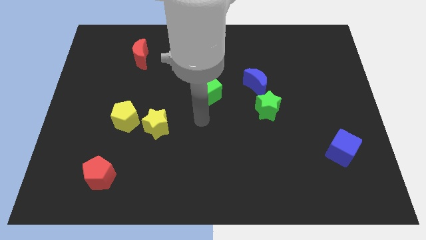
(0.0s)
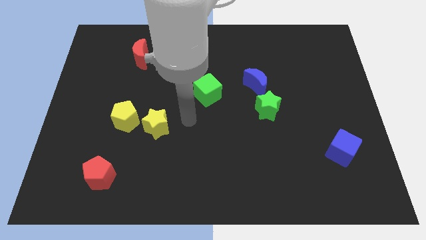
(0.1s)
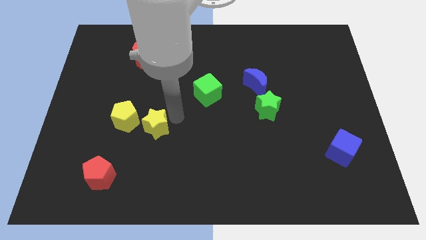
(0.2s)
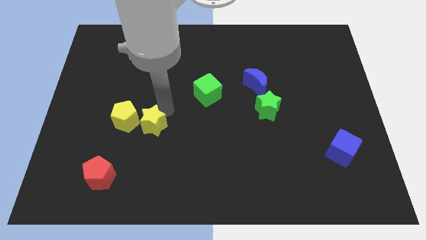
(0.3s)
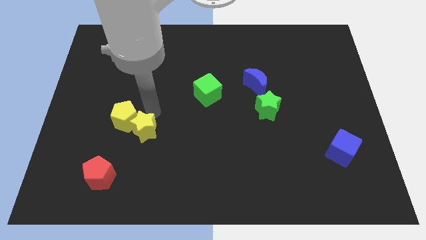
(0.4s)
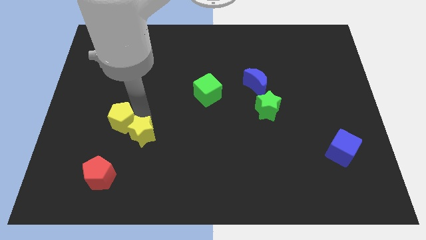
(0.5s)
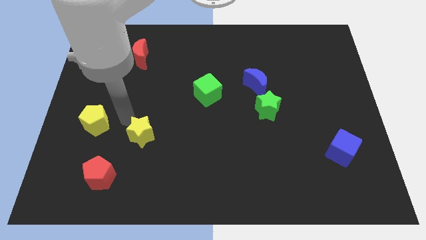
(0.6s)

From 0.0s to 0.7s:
pull the yellow star apart from the yellow pentagon

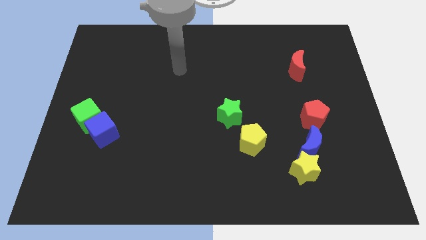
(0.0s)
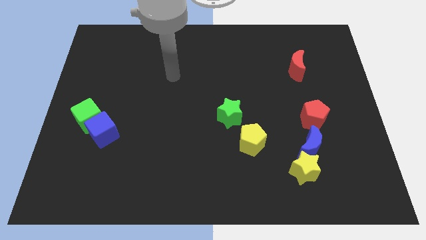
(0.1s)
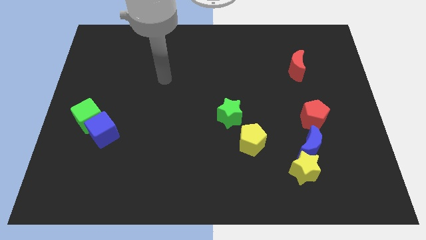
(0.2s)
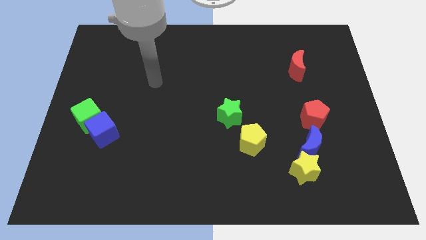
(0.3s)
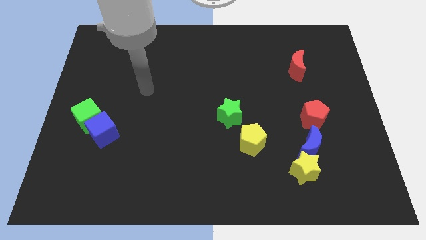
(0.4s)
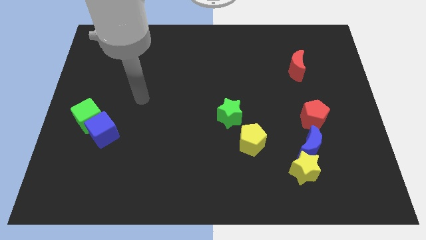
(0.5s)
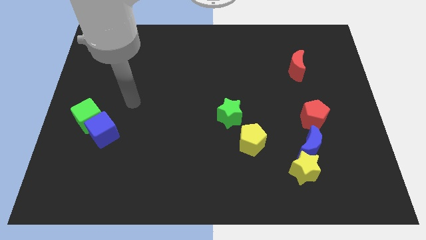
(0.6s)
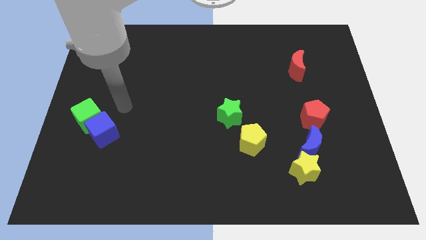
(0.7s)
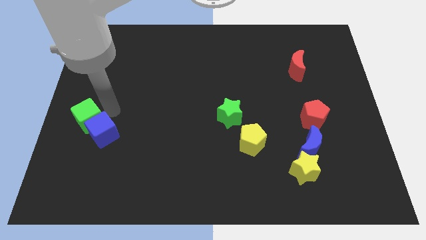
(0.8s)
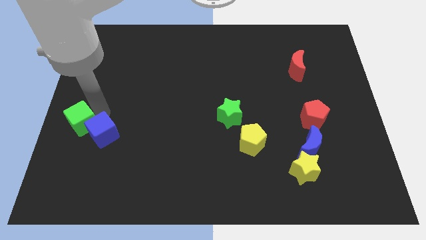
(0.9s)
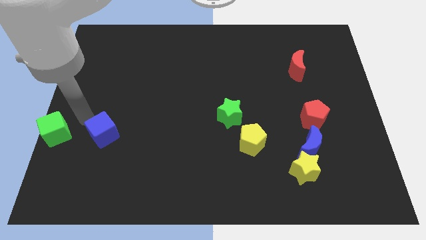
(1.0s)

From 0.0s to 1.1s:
pull the blue cube apart from the green cube

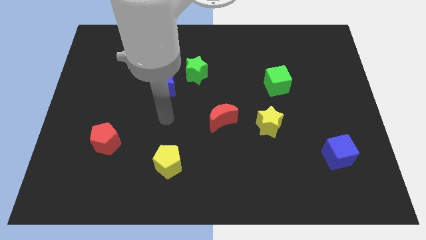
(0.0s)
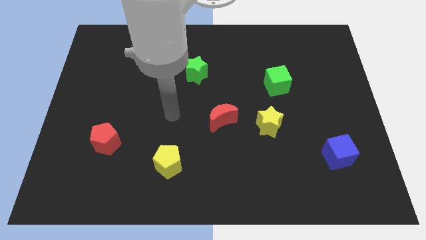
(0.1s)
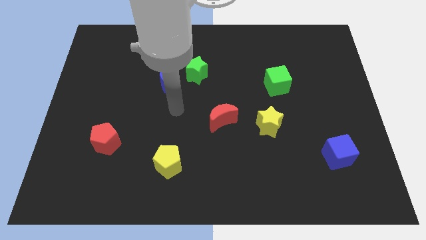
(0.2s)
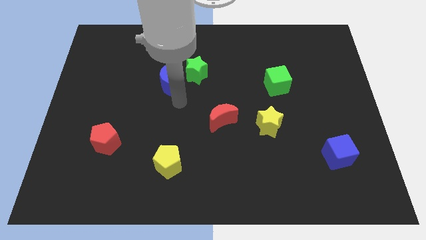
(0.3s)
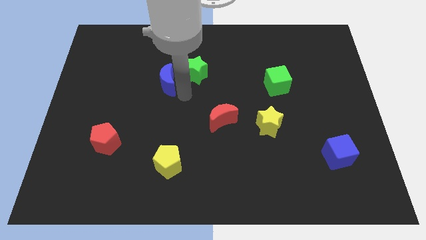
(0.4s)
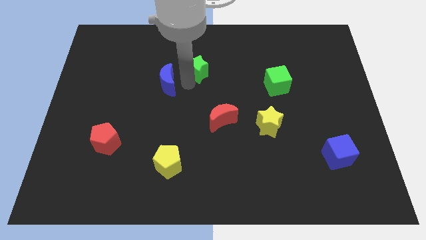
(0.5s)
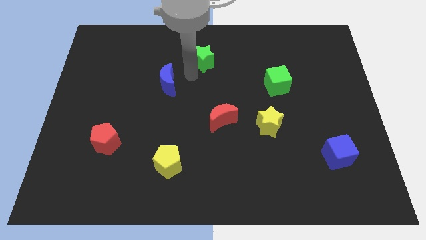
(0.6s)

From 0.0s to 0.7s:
separate the blue moon from the green star

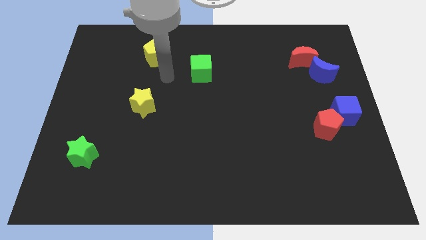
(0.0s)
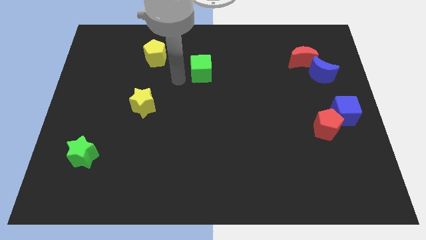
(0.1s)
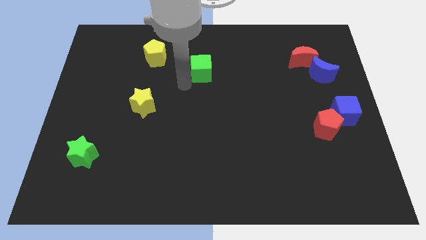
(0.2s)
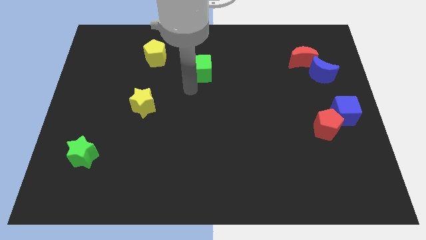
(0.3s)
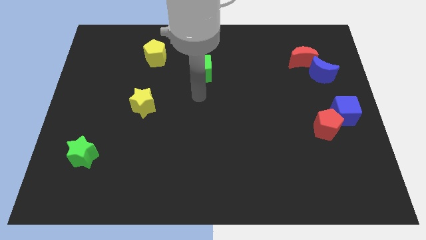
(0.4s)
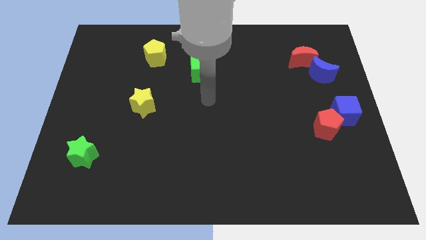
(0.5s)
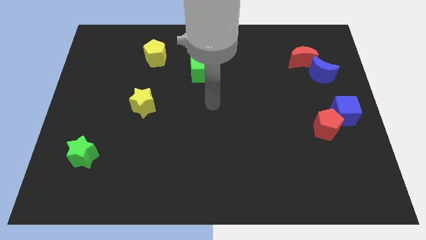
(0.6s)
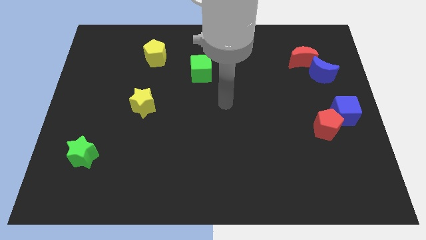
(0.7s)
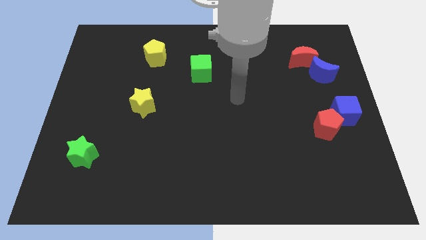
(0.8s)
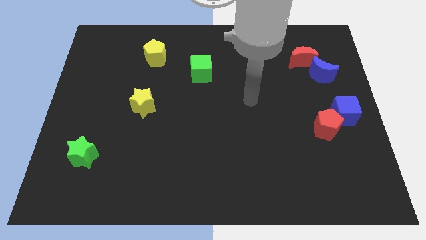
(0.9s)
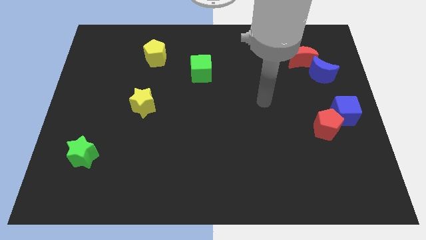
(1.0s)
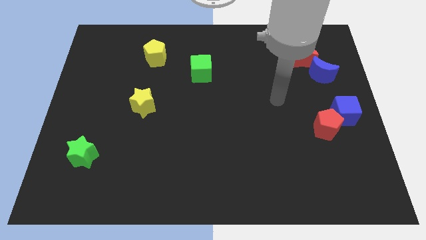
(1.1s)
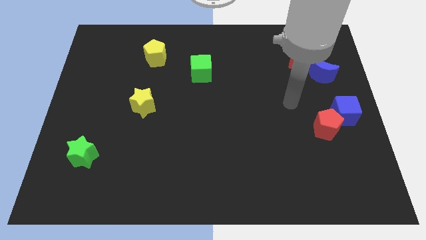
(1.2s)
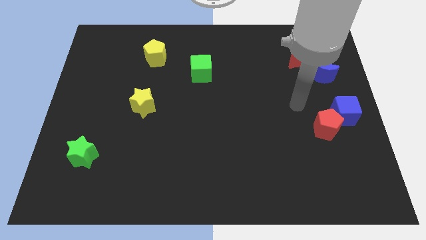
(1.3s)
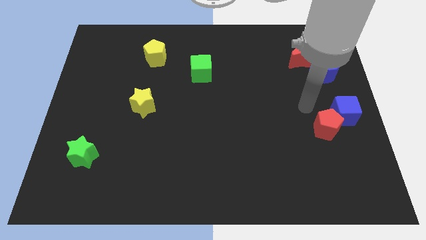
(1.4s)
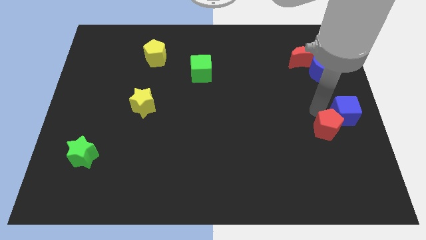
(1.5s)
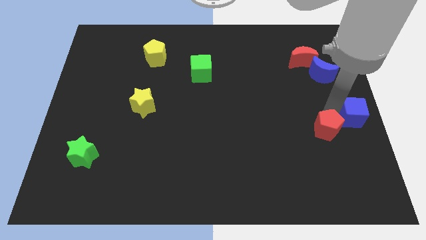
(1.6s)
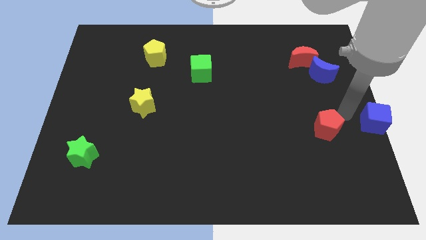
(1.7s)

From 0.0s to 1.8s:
pull the red pentagon apart from the blue cube

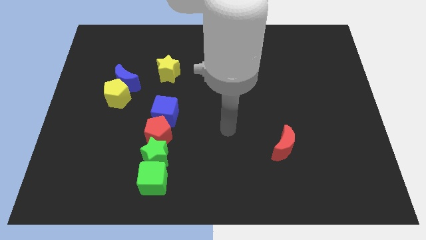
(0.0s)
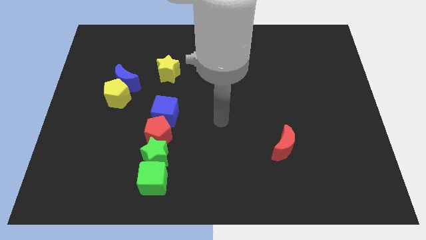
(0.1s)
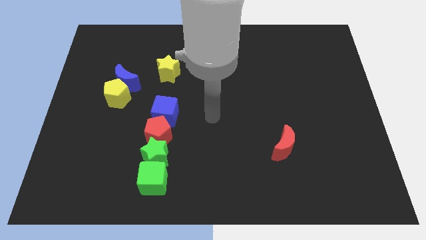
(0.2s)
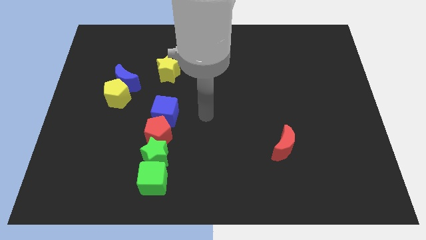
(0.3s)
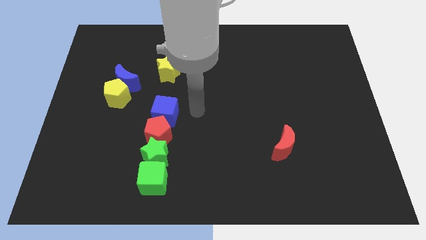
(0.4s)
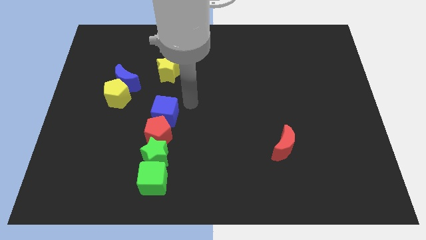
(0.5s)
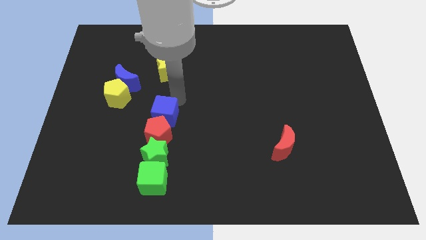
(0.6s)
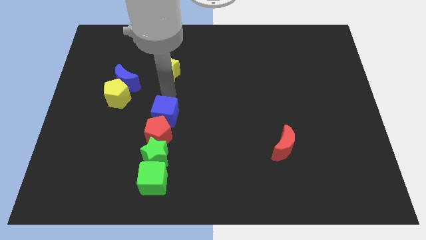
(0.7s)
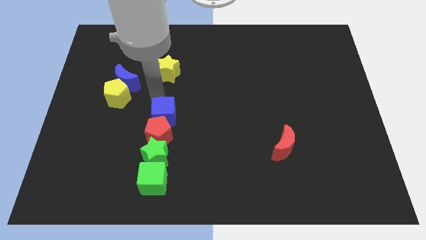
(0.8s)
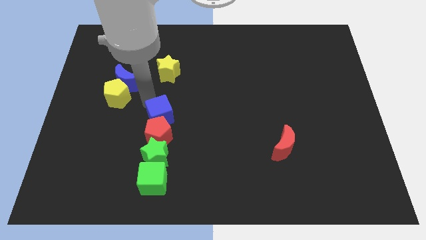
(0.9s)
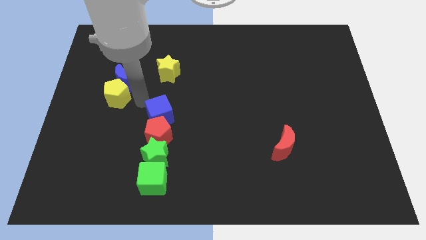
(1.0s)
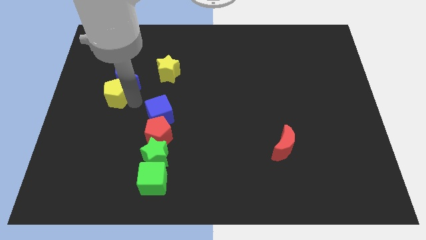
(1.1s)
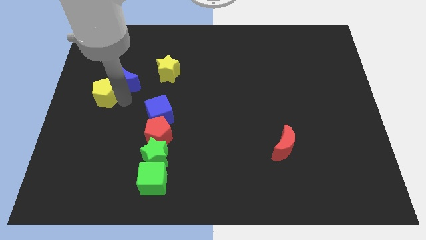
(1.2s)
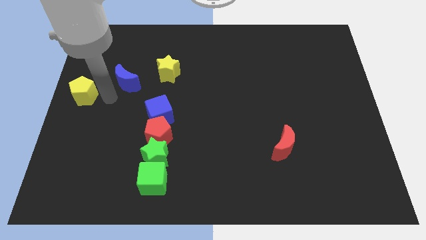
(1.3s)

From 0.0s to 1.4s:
move the blue moon away from the yellow pentagon

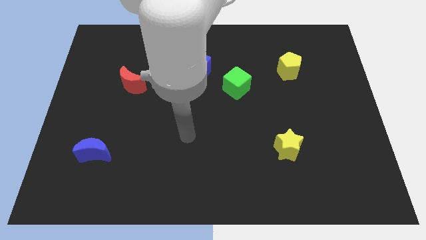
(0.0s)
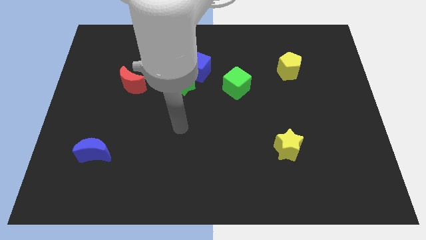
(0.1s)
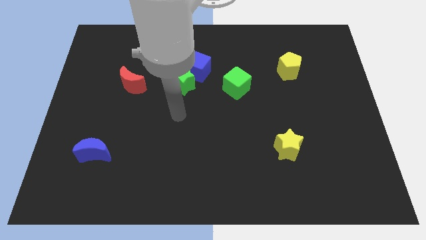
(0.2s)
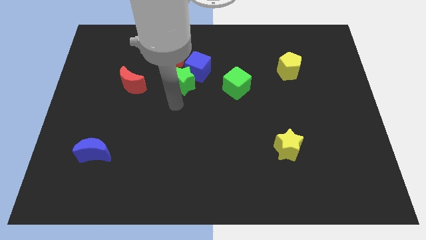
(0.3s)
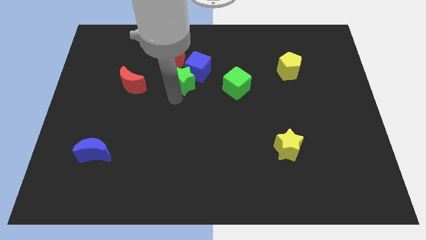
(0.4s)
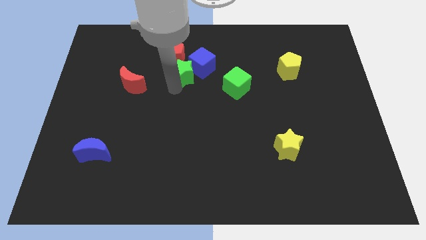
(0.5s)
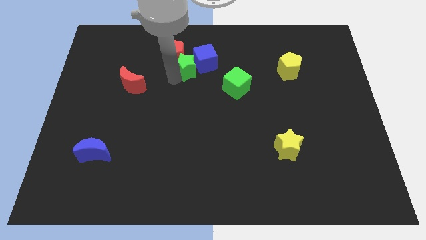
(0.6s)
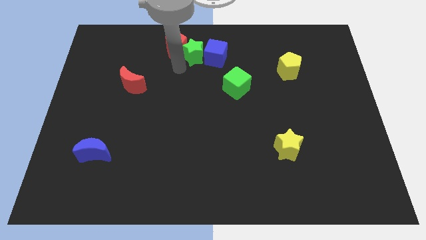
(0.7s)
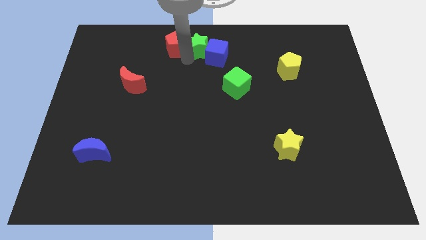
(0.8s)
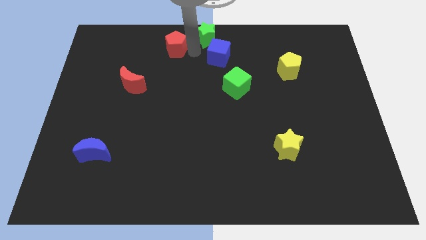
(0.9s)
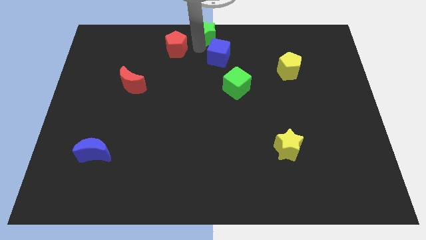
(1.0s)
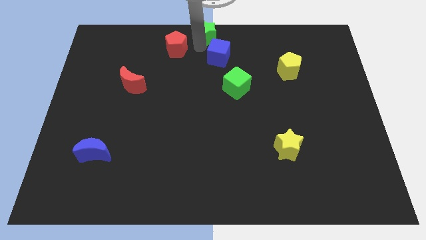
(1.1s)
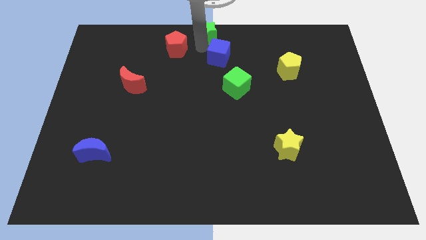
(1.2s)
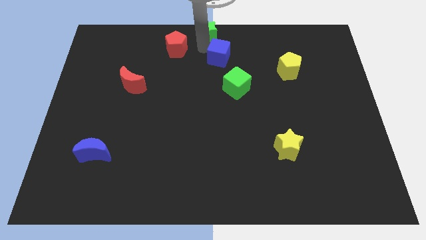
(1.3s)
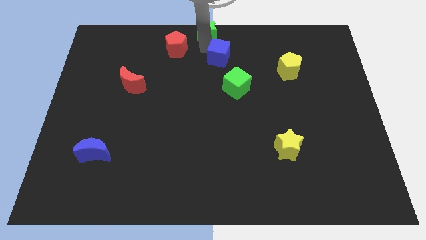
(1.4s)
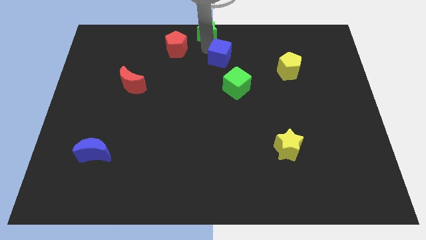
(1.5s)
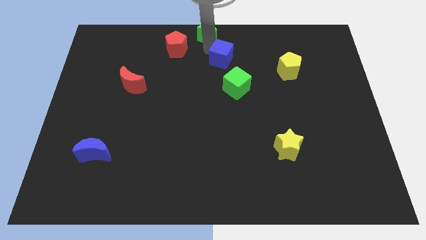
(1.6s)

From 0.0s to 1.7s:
separate the blue cube from the green star and red pentagon

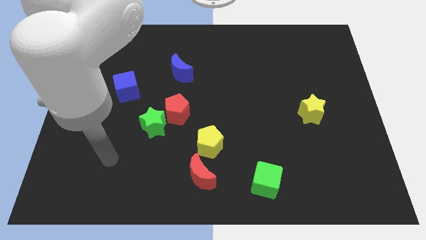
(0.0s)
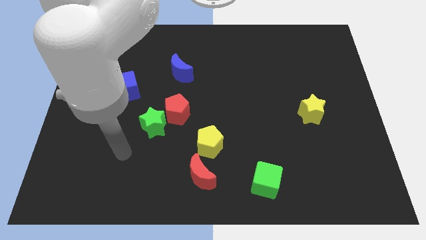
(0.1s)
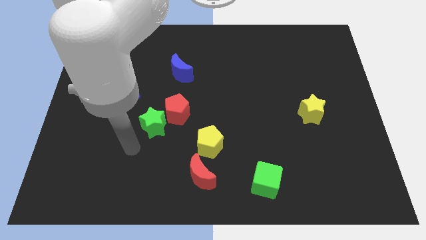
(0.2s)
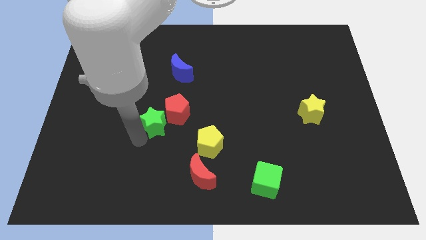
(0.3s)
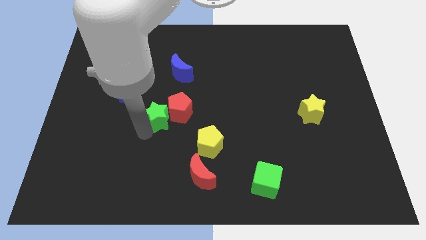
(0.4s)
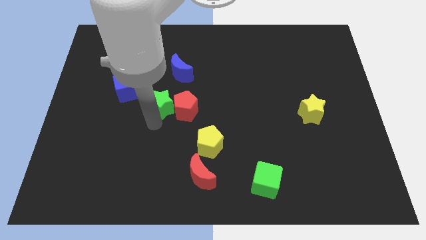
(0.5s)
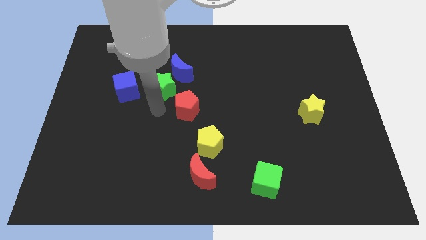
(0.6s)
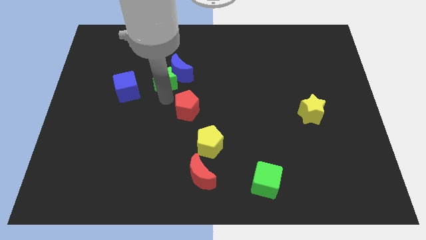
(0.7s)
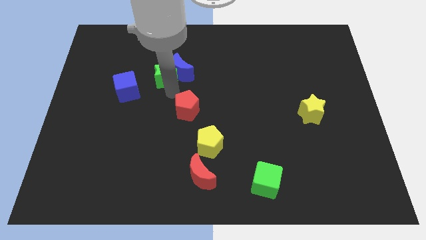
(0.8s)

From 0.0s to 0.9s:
pull the red pentagon apart from the green star

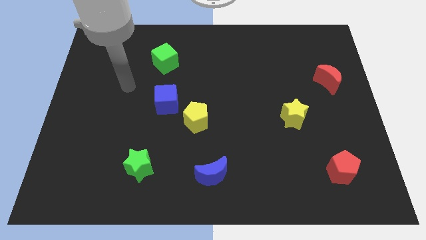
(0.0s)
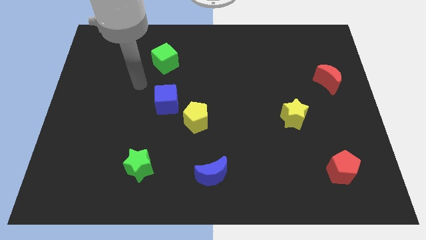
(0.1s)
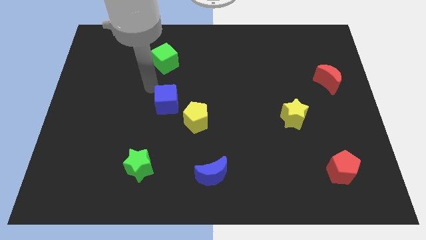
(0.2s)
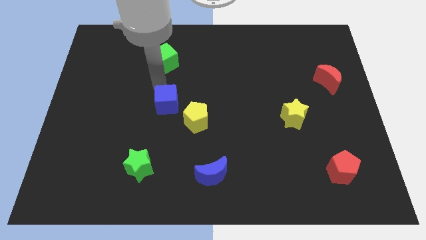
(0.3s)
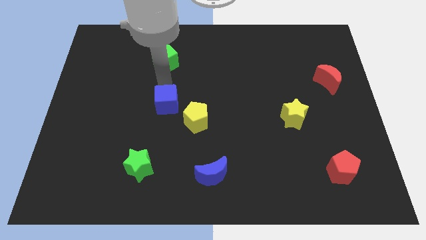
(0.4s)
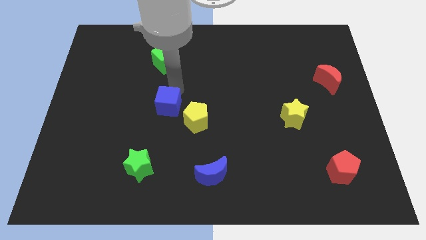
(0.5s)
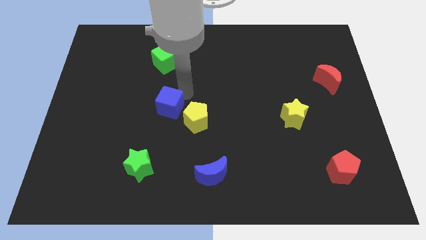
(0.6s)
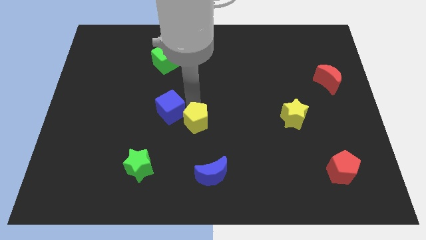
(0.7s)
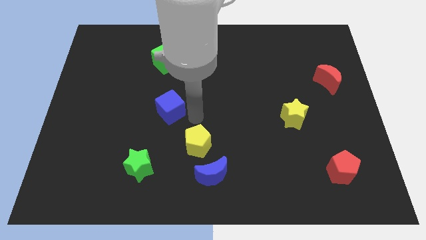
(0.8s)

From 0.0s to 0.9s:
pull the blue cube apart from the yellow pentagon
